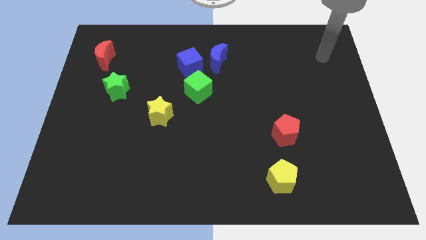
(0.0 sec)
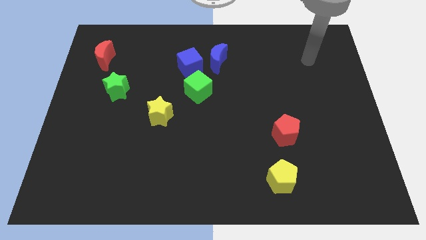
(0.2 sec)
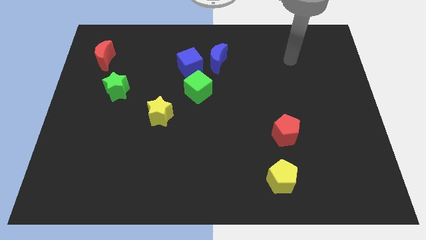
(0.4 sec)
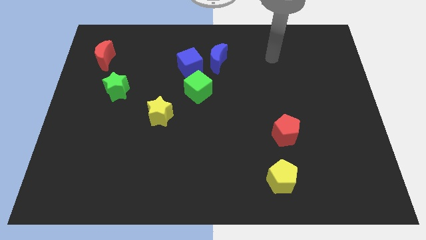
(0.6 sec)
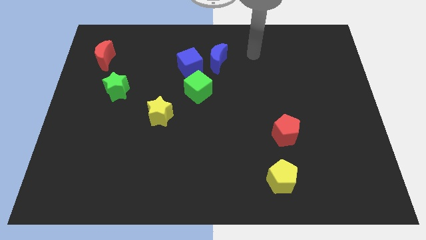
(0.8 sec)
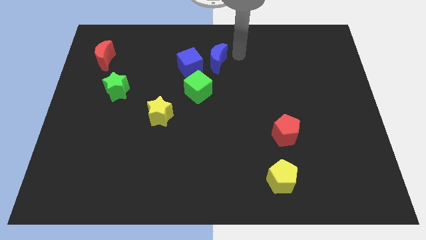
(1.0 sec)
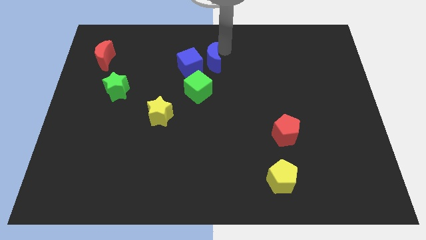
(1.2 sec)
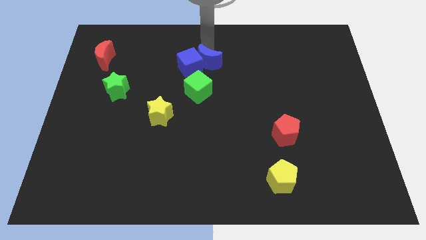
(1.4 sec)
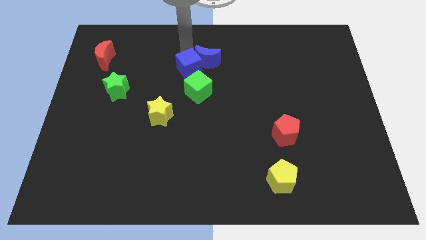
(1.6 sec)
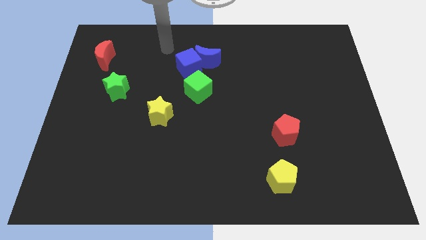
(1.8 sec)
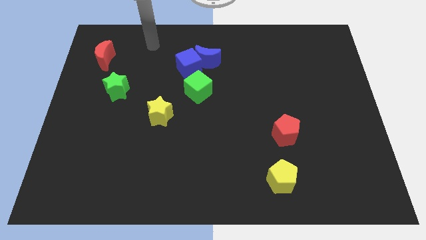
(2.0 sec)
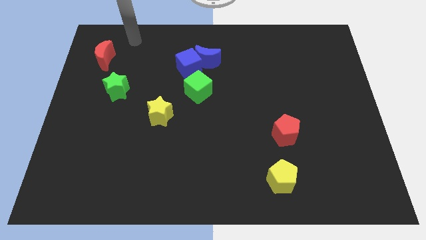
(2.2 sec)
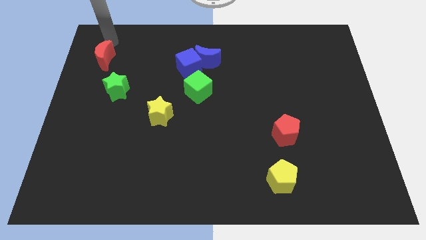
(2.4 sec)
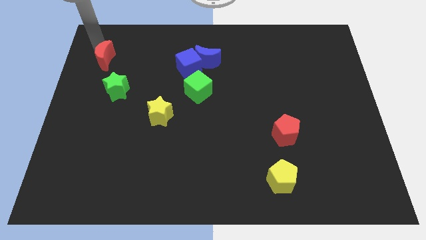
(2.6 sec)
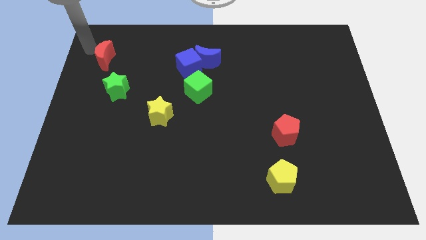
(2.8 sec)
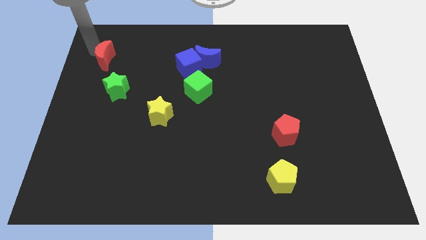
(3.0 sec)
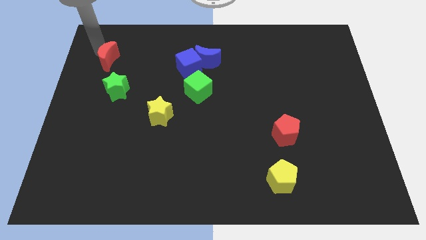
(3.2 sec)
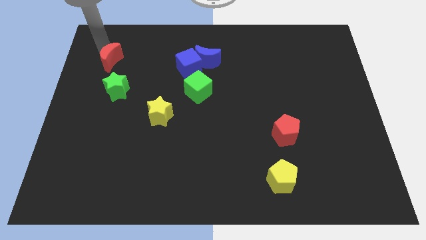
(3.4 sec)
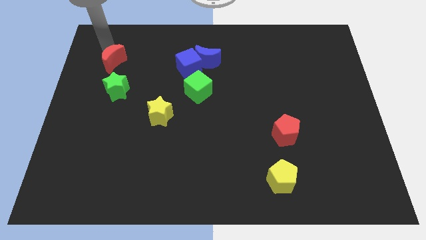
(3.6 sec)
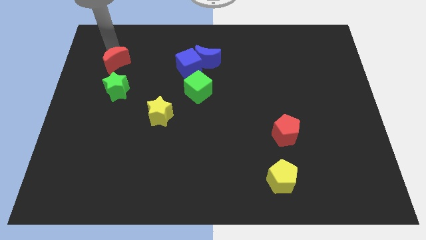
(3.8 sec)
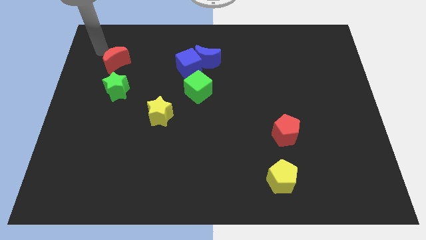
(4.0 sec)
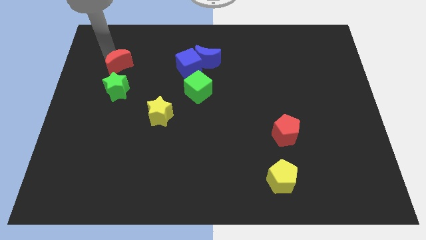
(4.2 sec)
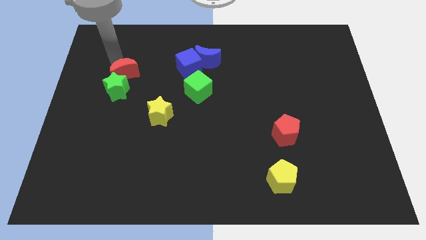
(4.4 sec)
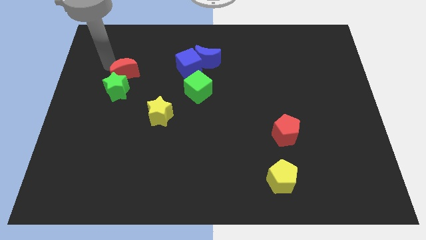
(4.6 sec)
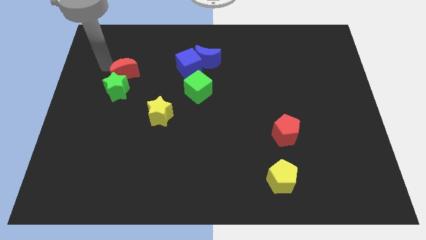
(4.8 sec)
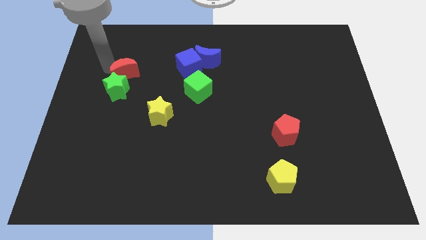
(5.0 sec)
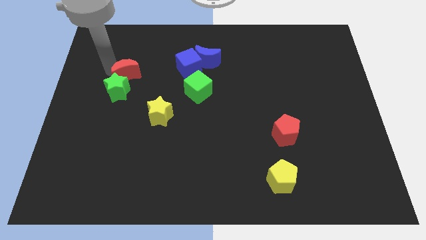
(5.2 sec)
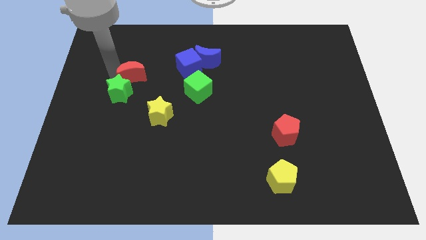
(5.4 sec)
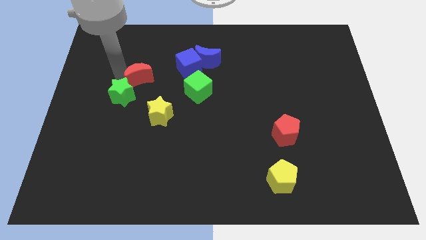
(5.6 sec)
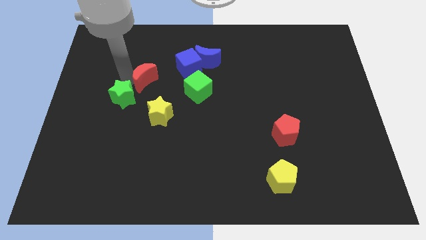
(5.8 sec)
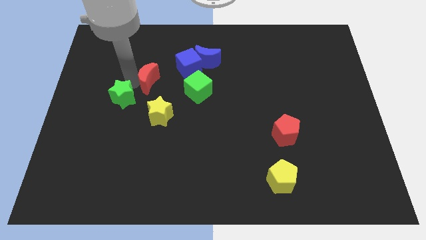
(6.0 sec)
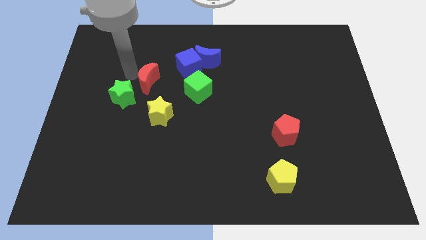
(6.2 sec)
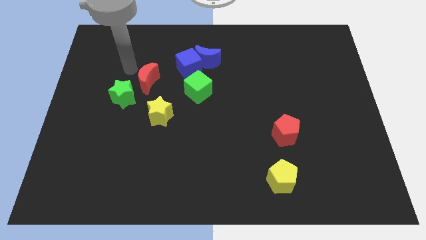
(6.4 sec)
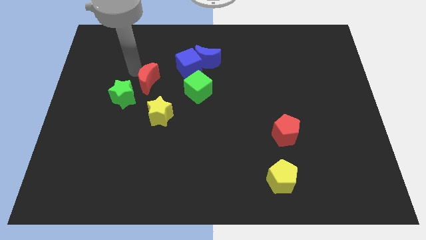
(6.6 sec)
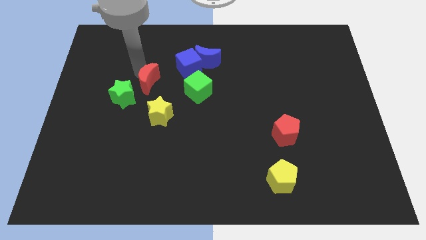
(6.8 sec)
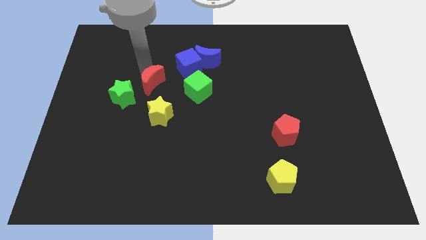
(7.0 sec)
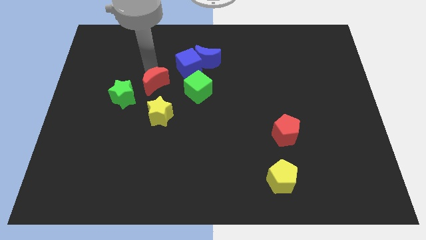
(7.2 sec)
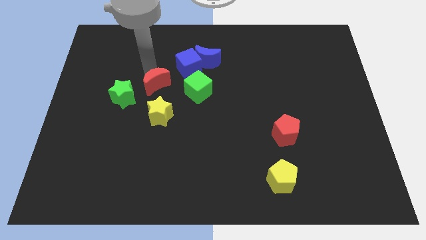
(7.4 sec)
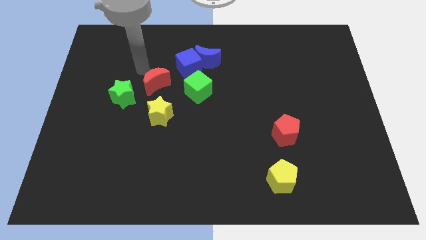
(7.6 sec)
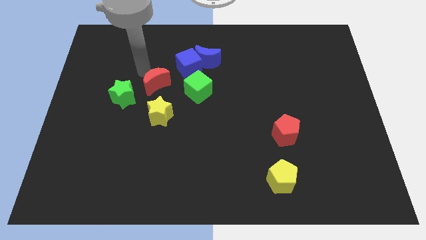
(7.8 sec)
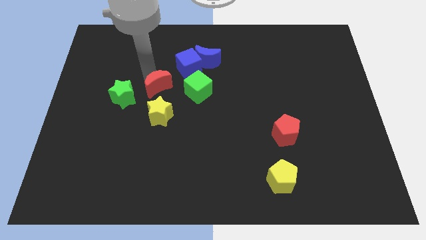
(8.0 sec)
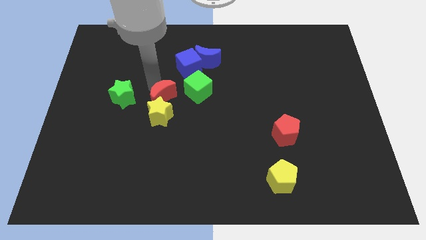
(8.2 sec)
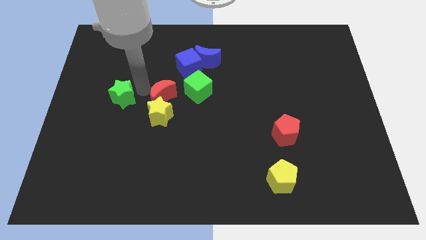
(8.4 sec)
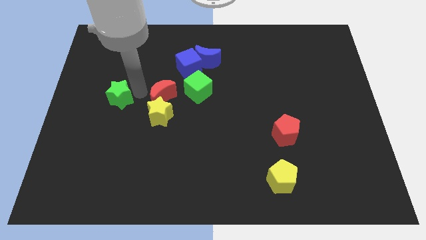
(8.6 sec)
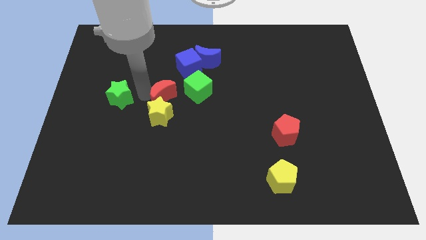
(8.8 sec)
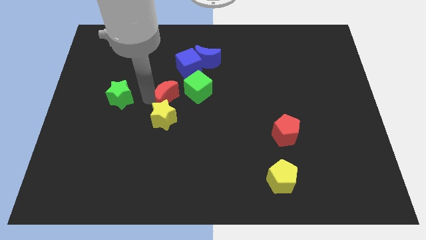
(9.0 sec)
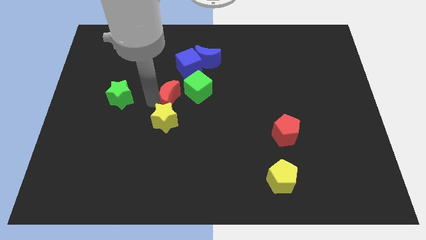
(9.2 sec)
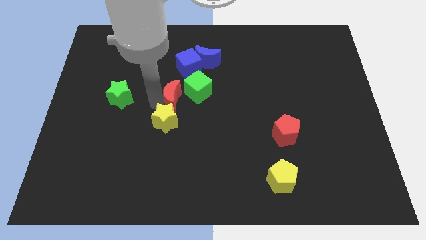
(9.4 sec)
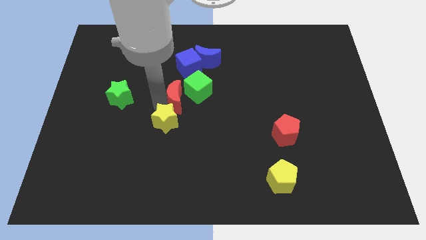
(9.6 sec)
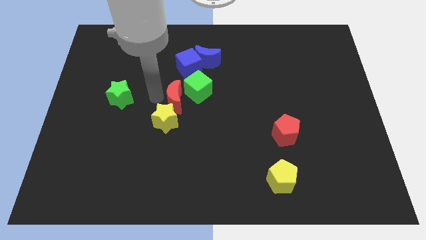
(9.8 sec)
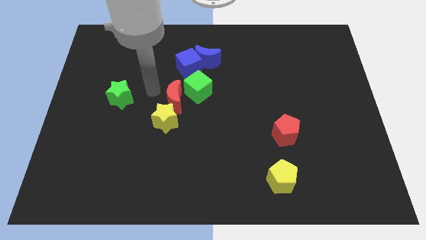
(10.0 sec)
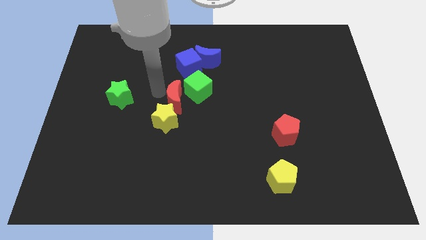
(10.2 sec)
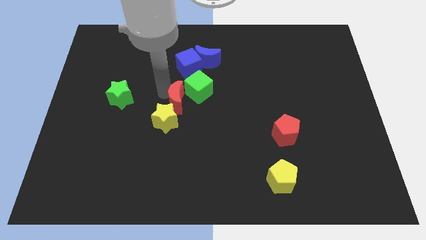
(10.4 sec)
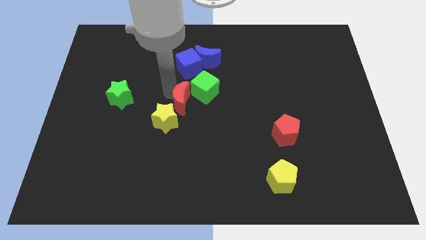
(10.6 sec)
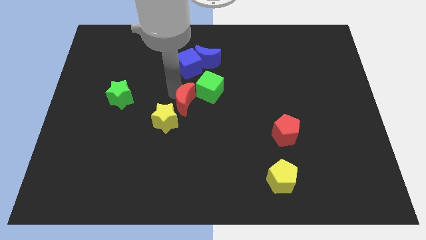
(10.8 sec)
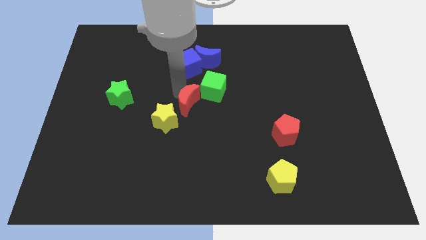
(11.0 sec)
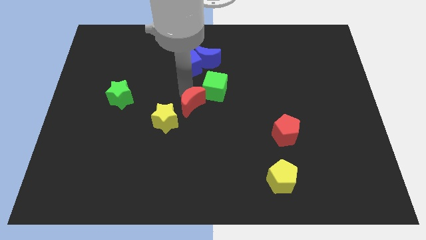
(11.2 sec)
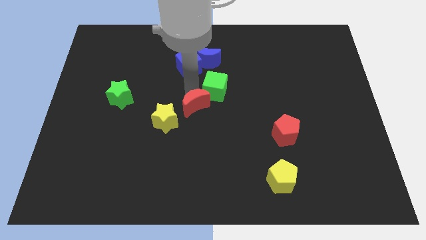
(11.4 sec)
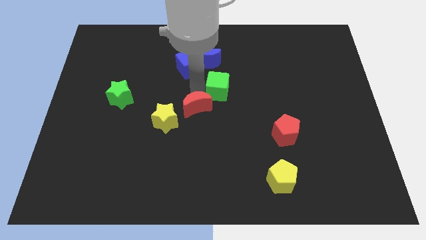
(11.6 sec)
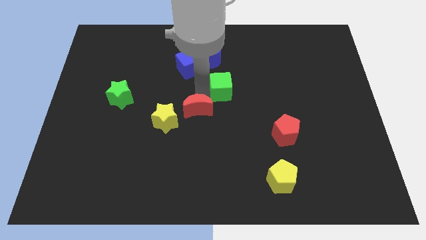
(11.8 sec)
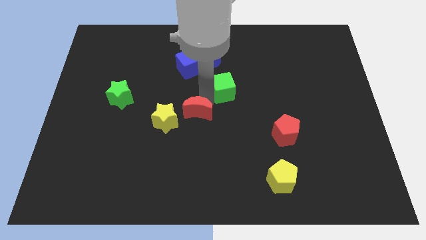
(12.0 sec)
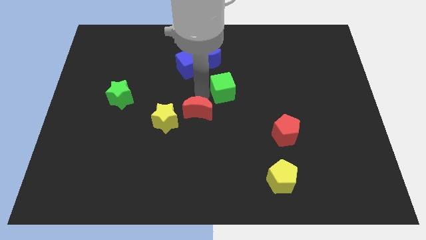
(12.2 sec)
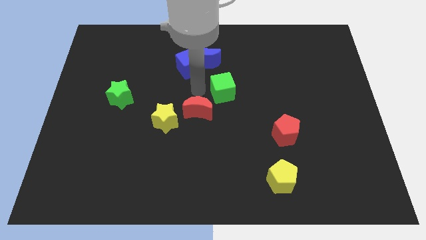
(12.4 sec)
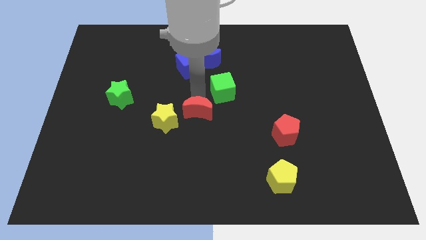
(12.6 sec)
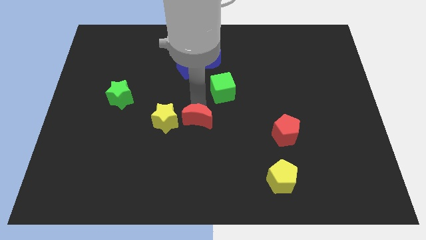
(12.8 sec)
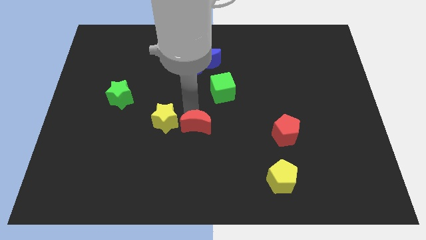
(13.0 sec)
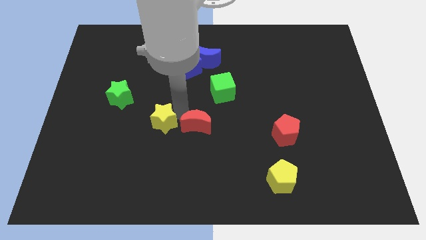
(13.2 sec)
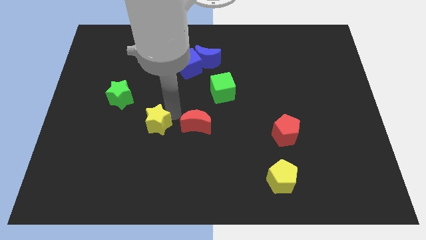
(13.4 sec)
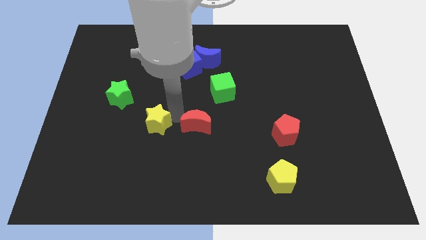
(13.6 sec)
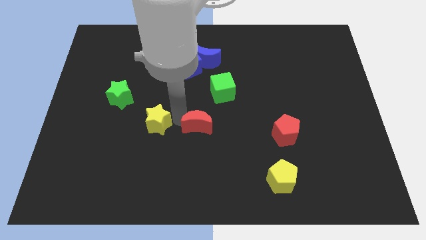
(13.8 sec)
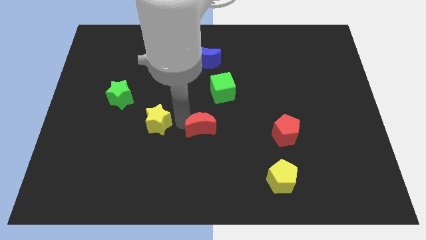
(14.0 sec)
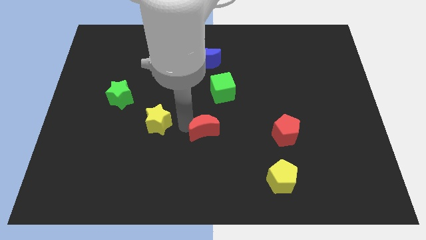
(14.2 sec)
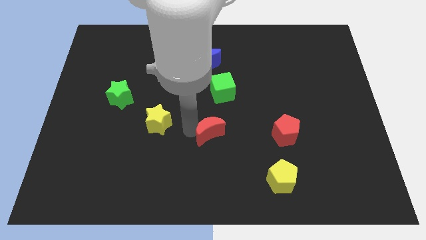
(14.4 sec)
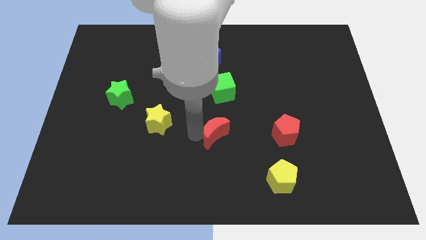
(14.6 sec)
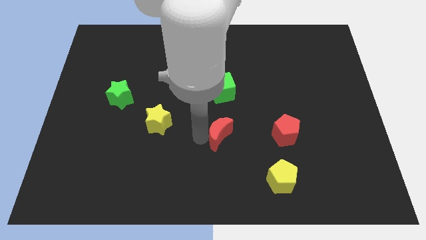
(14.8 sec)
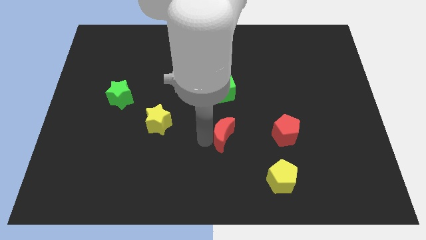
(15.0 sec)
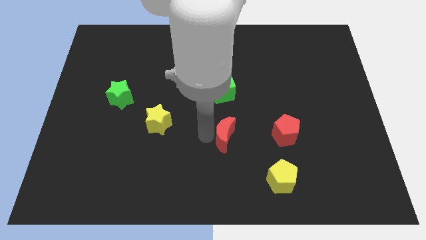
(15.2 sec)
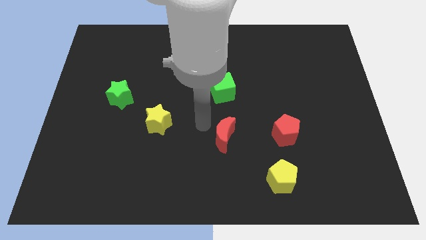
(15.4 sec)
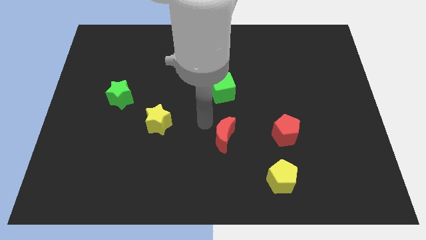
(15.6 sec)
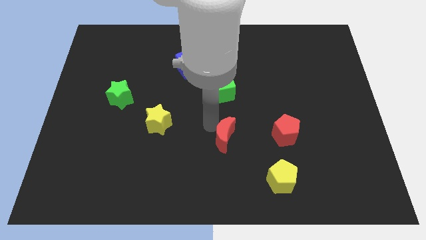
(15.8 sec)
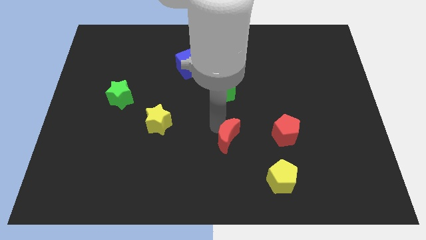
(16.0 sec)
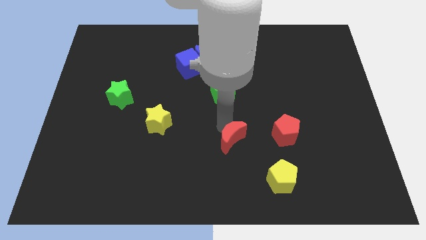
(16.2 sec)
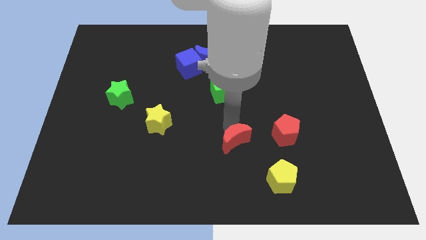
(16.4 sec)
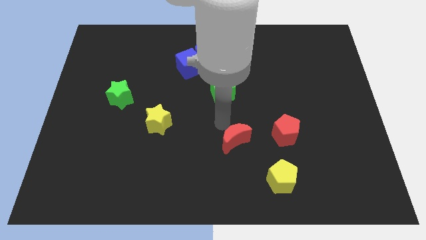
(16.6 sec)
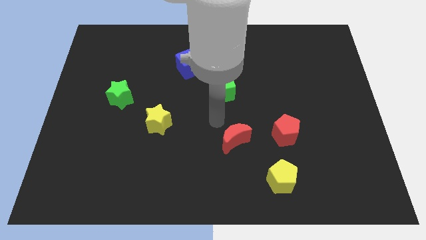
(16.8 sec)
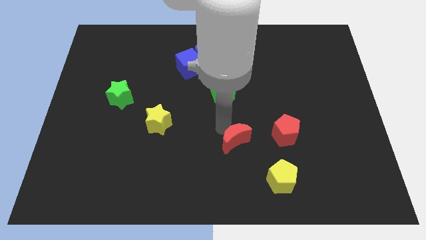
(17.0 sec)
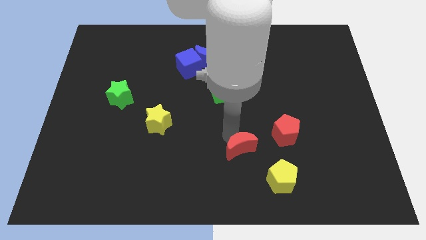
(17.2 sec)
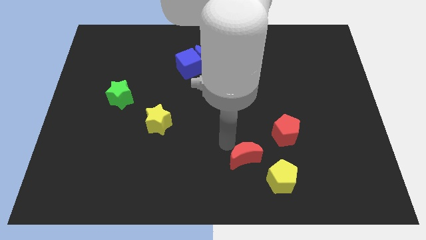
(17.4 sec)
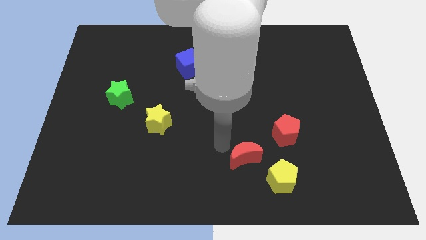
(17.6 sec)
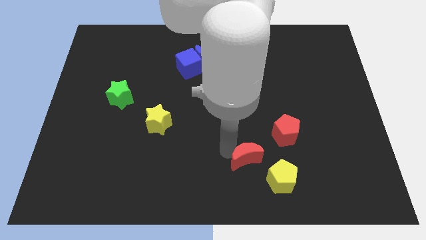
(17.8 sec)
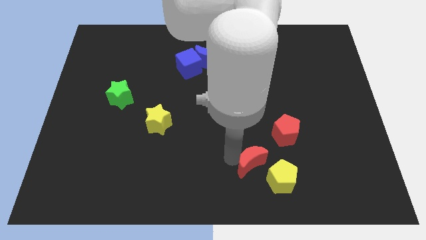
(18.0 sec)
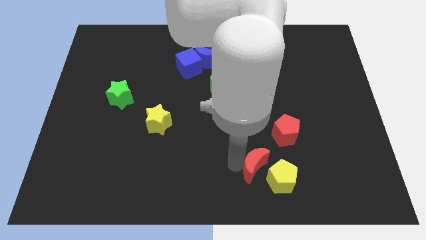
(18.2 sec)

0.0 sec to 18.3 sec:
slide the red moon close to the yellow pentagon
